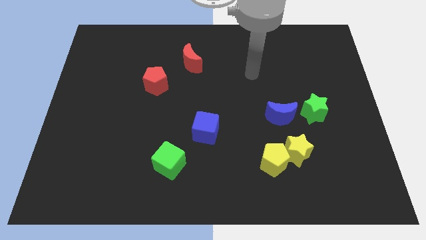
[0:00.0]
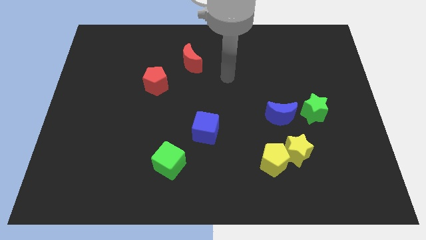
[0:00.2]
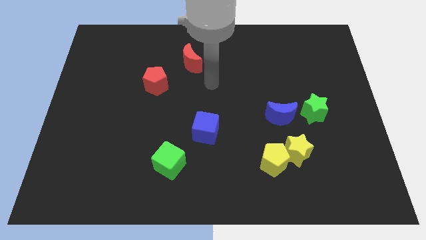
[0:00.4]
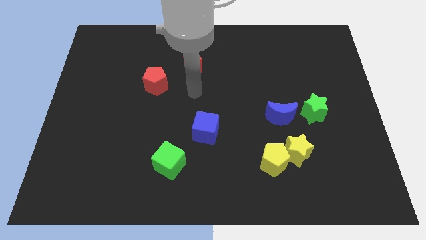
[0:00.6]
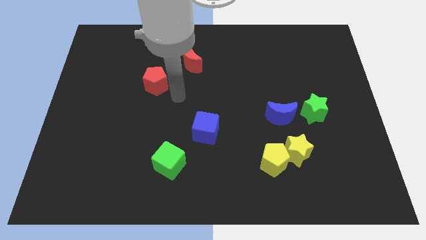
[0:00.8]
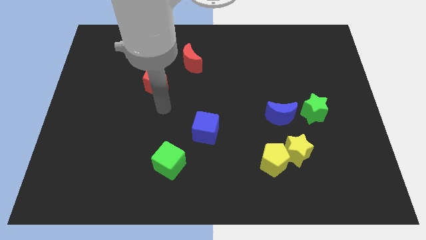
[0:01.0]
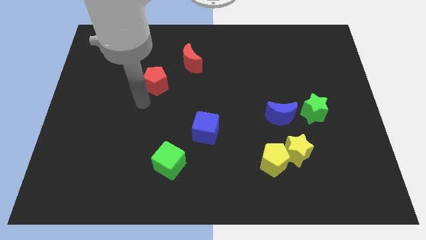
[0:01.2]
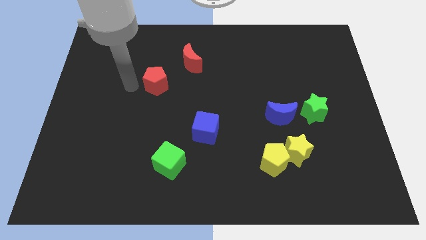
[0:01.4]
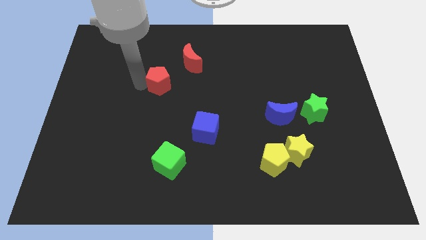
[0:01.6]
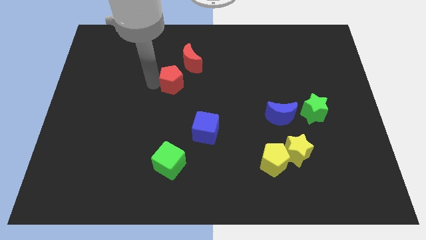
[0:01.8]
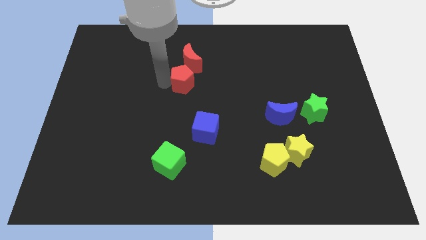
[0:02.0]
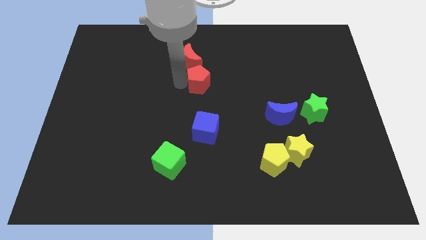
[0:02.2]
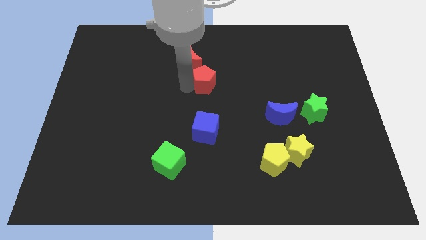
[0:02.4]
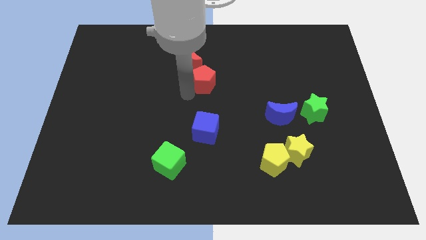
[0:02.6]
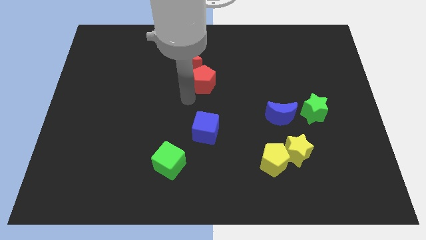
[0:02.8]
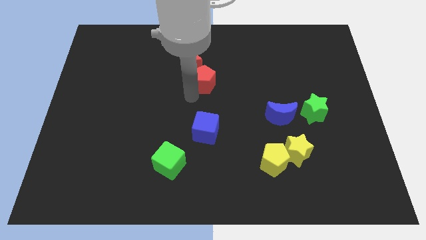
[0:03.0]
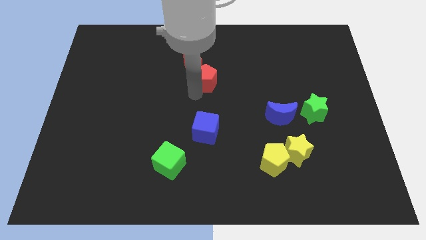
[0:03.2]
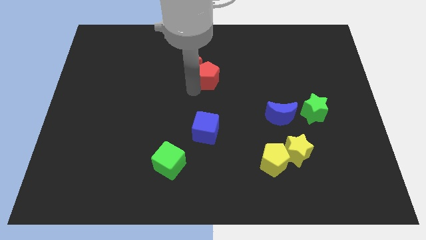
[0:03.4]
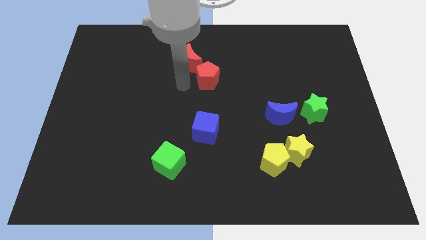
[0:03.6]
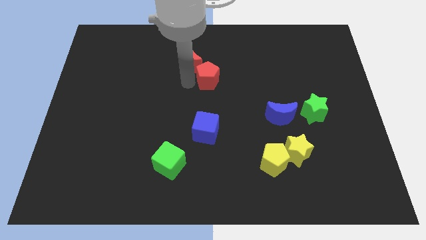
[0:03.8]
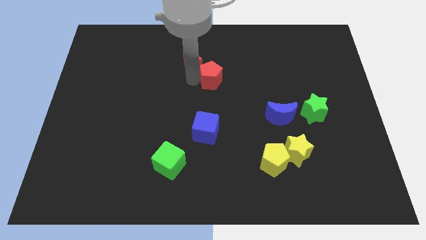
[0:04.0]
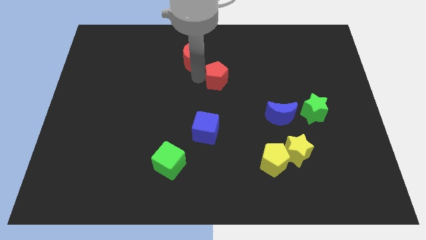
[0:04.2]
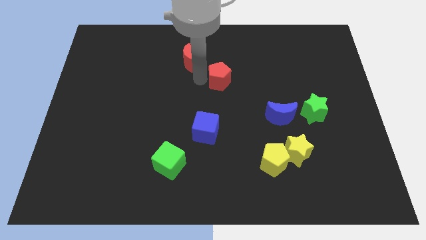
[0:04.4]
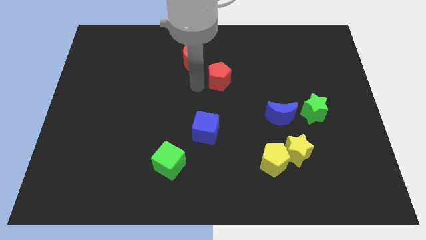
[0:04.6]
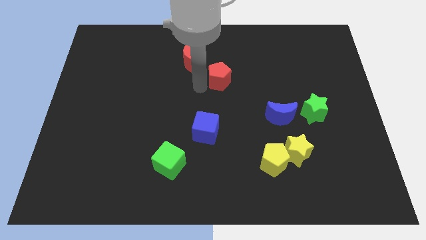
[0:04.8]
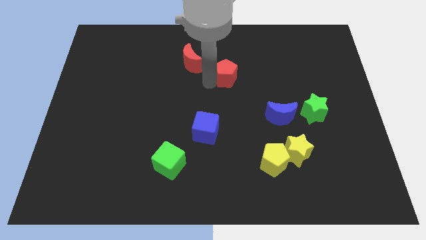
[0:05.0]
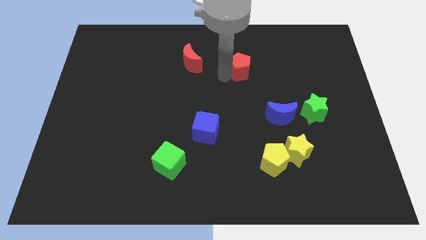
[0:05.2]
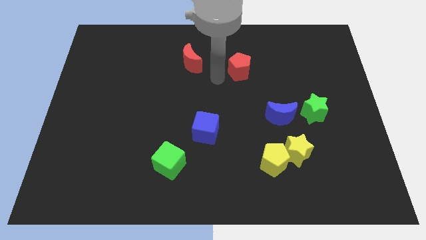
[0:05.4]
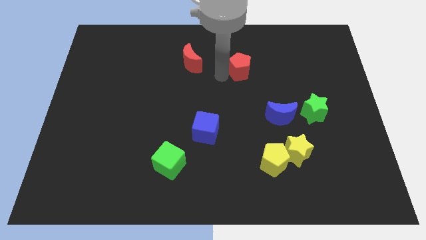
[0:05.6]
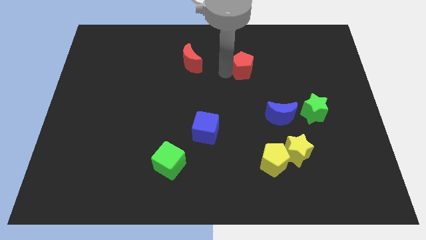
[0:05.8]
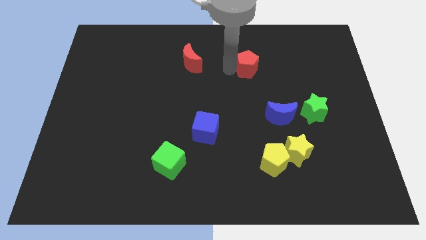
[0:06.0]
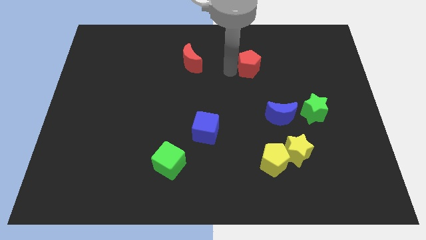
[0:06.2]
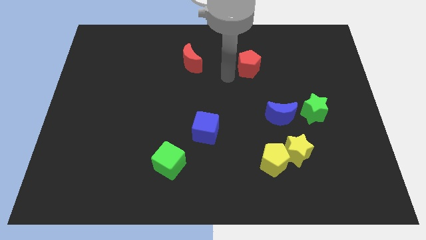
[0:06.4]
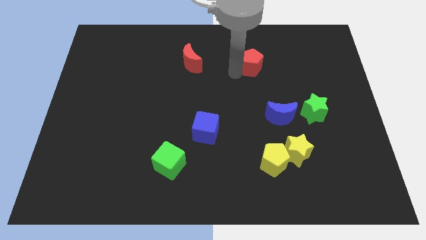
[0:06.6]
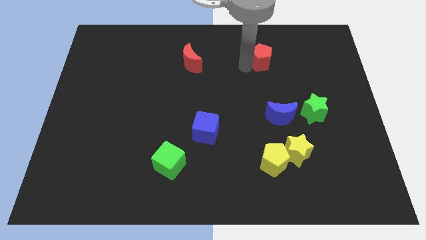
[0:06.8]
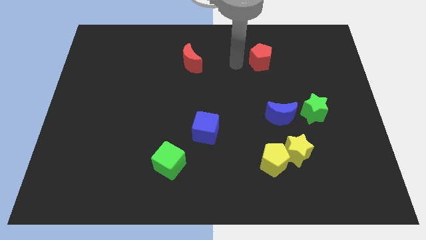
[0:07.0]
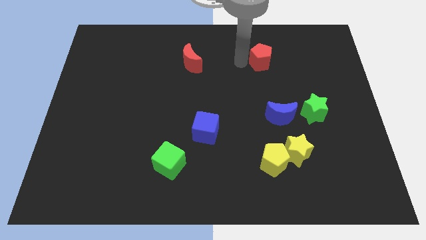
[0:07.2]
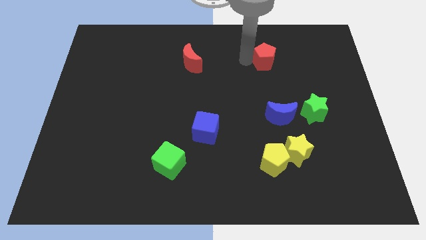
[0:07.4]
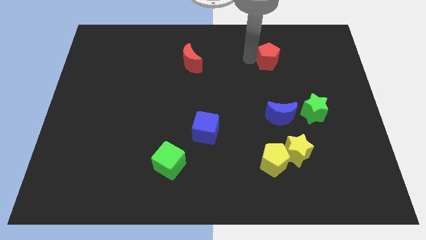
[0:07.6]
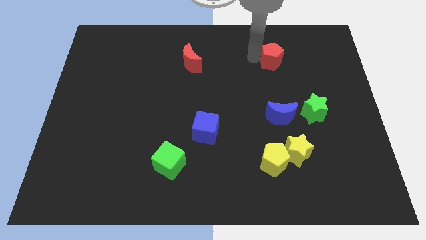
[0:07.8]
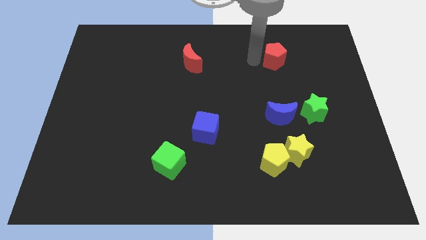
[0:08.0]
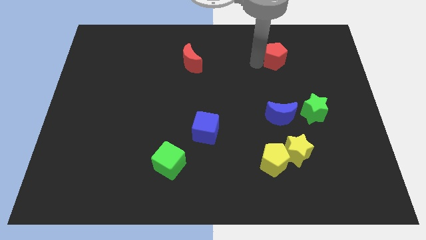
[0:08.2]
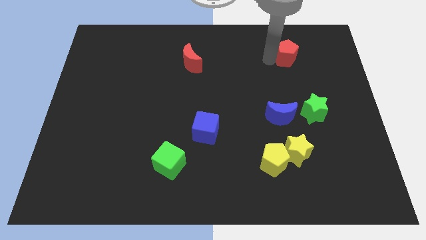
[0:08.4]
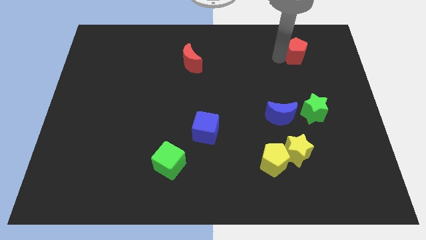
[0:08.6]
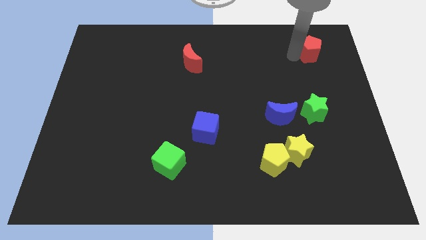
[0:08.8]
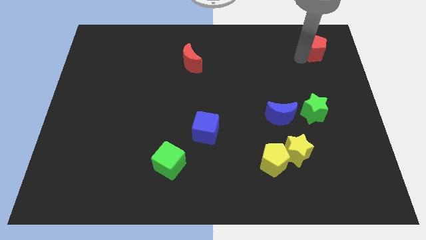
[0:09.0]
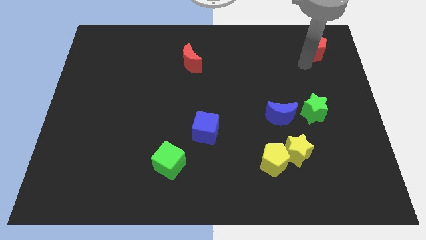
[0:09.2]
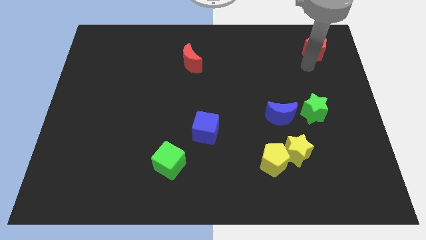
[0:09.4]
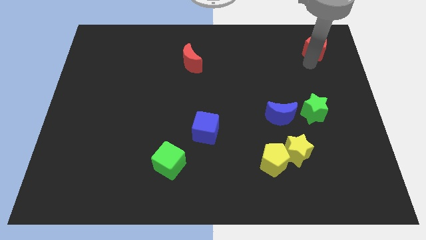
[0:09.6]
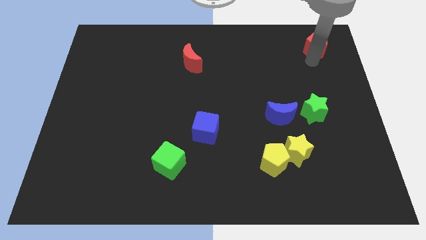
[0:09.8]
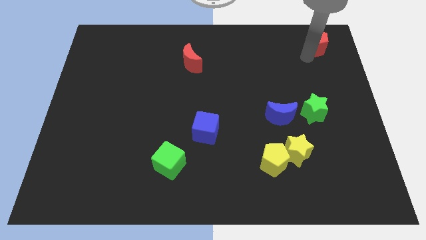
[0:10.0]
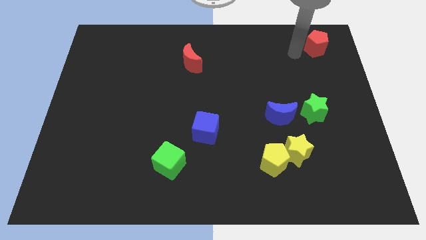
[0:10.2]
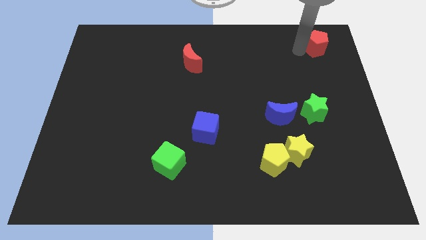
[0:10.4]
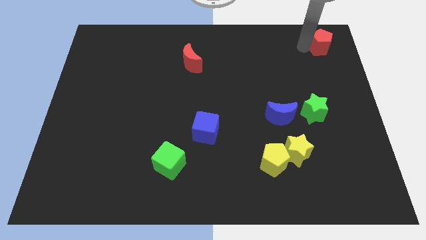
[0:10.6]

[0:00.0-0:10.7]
slide the red pentagon to the upper right corner
